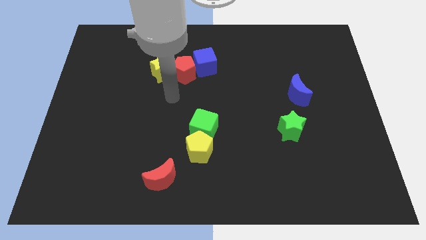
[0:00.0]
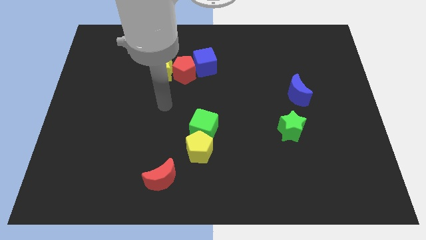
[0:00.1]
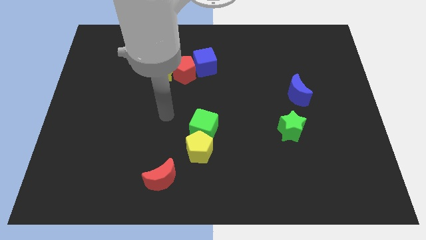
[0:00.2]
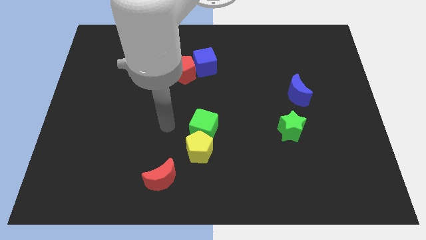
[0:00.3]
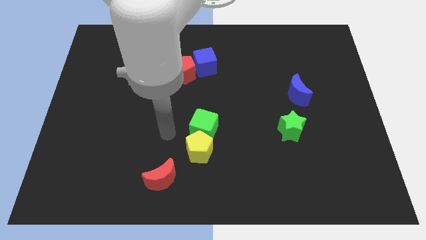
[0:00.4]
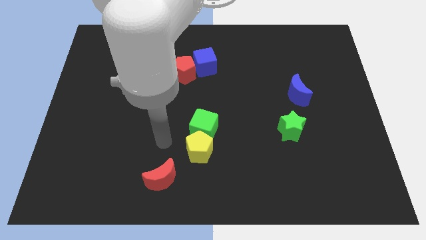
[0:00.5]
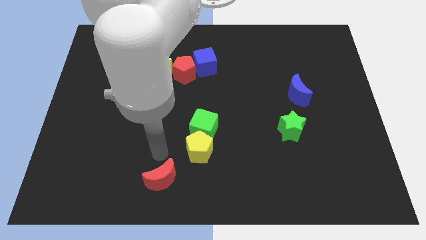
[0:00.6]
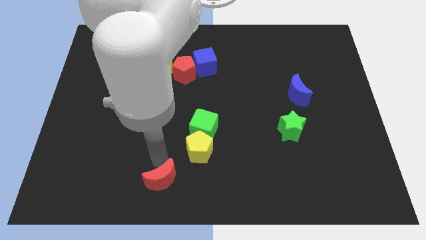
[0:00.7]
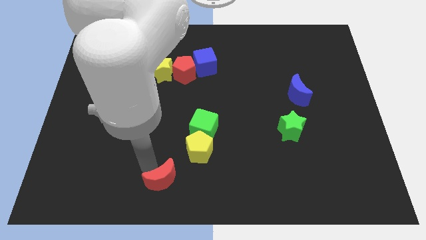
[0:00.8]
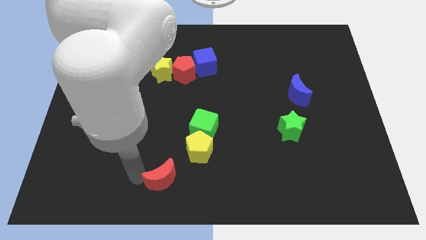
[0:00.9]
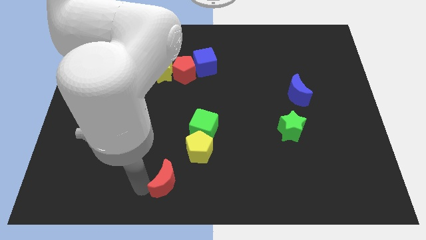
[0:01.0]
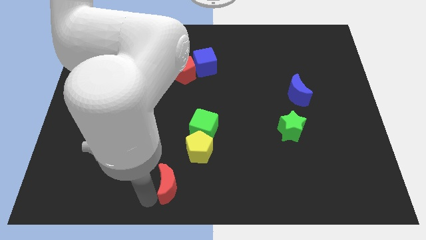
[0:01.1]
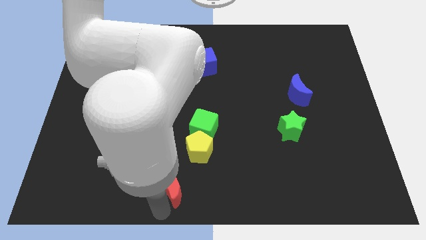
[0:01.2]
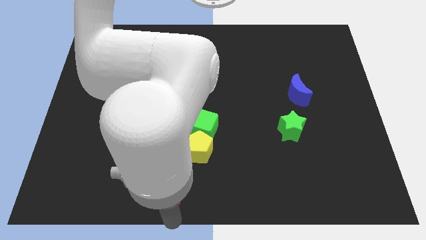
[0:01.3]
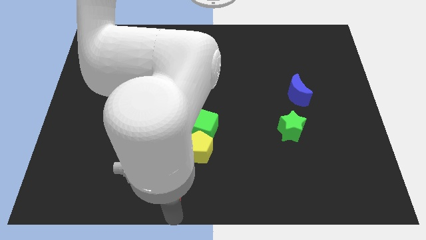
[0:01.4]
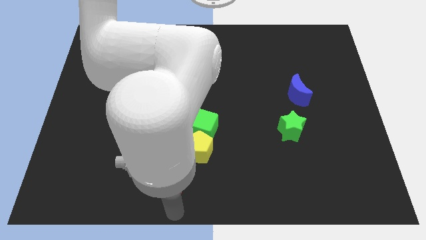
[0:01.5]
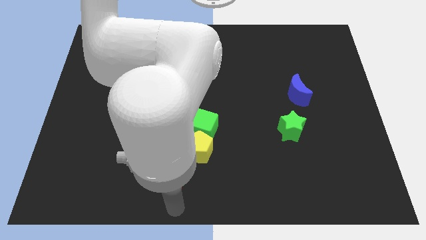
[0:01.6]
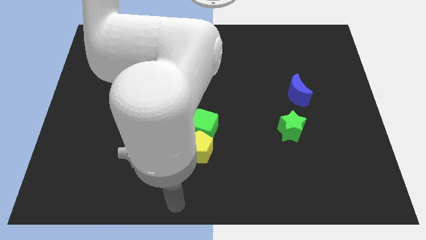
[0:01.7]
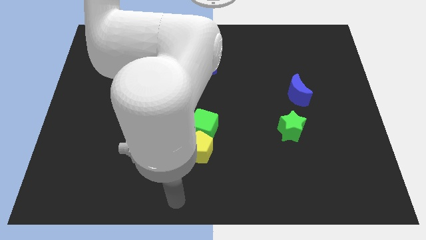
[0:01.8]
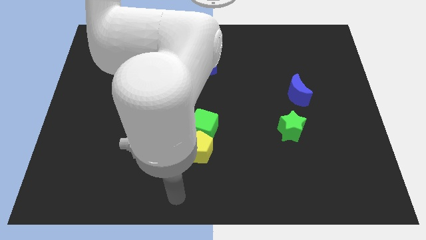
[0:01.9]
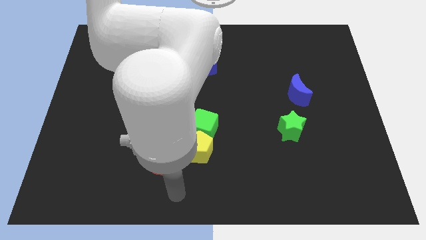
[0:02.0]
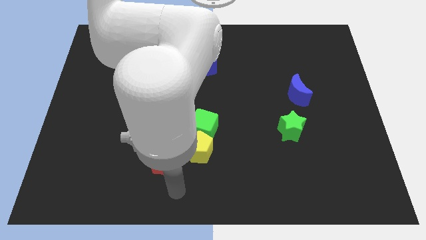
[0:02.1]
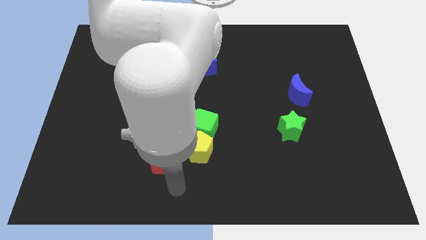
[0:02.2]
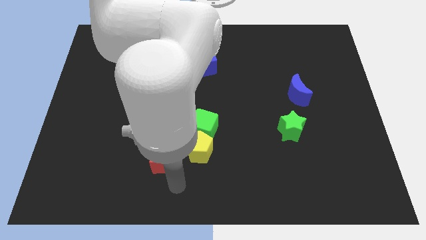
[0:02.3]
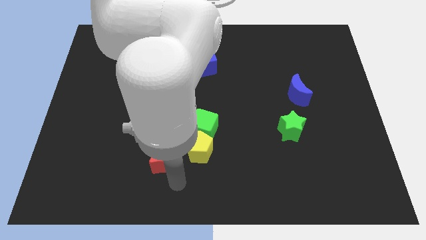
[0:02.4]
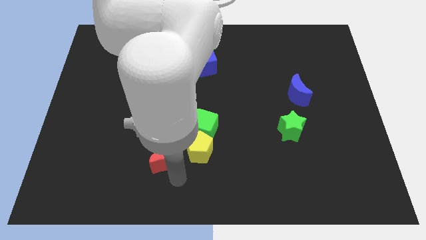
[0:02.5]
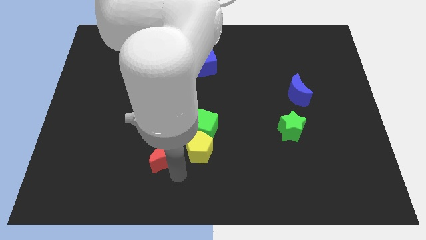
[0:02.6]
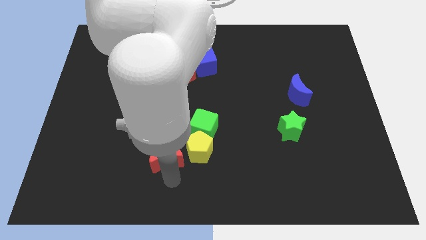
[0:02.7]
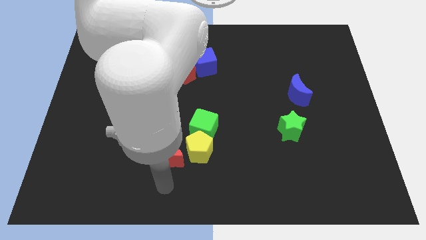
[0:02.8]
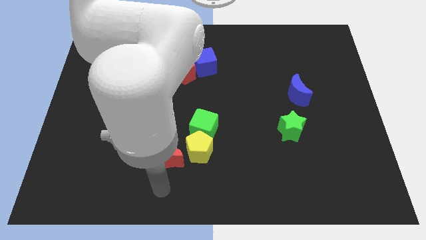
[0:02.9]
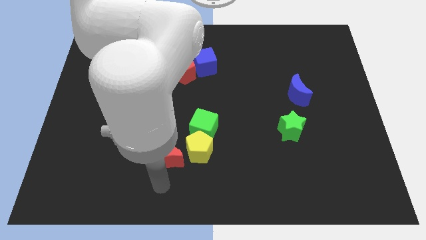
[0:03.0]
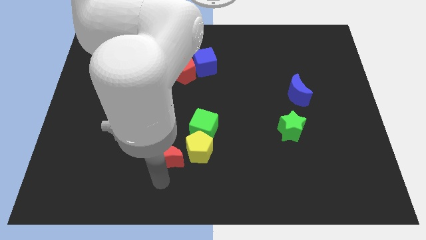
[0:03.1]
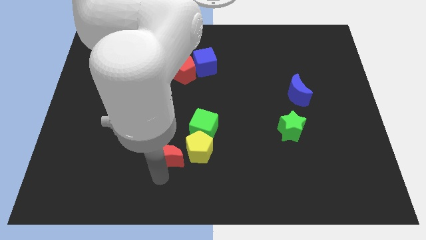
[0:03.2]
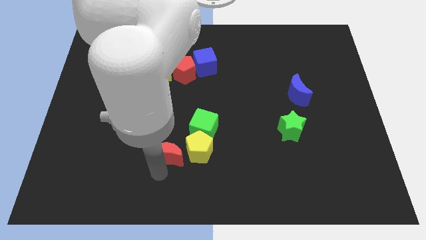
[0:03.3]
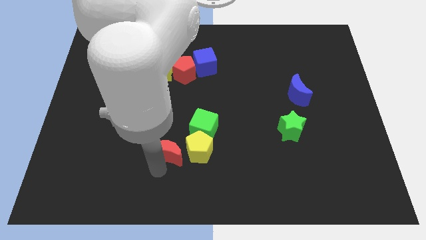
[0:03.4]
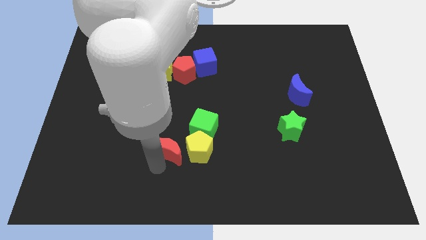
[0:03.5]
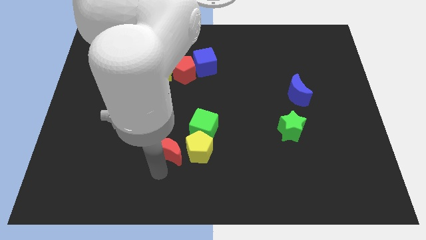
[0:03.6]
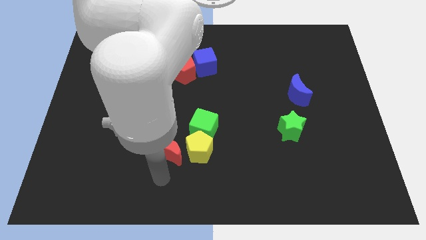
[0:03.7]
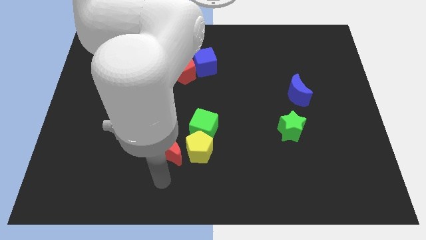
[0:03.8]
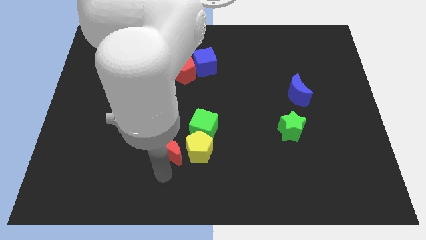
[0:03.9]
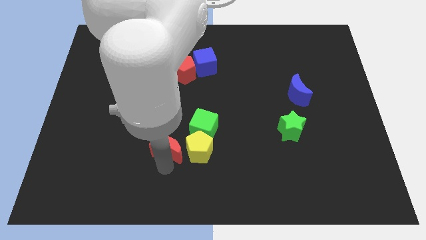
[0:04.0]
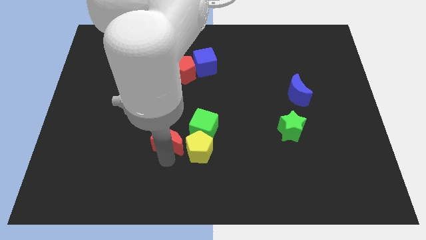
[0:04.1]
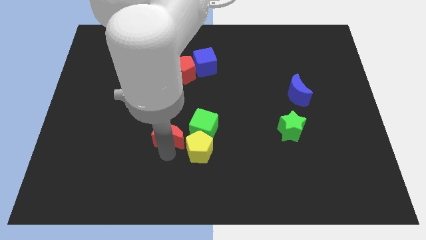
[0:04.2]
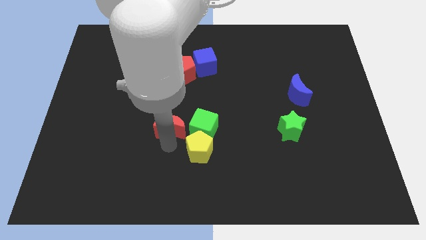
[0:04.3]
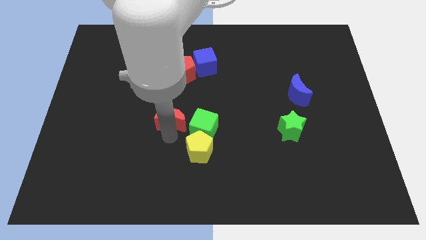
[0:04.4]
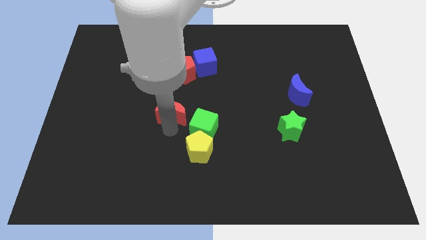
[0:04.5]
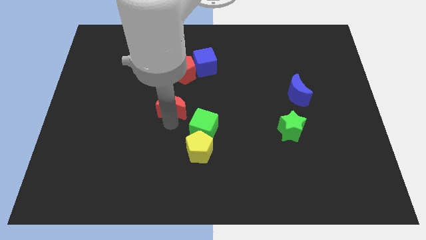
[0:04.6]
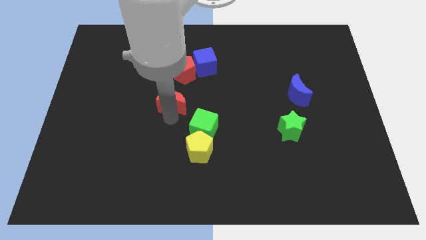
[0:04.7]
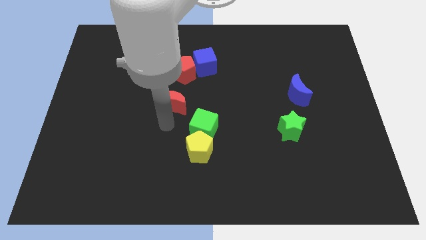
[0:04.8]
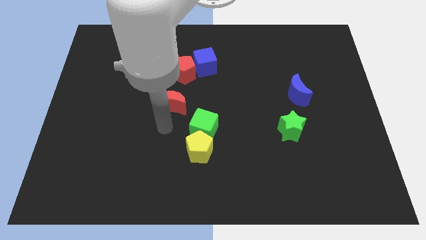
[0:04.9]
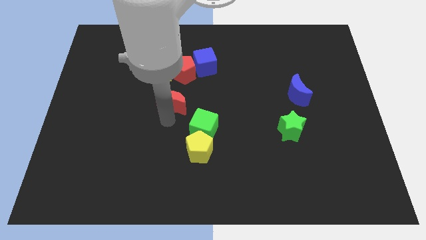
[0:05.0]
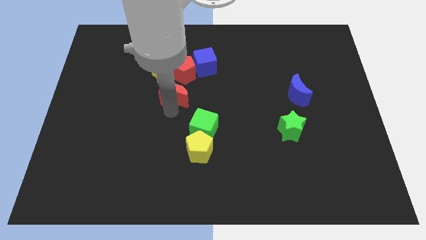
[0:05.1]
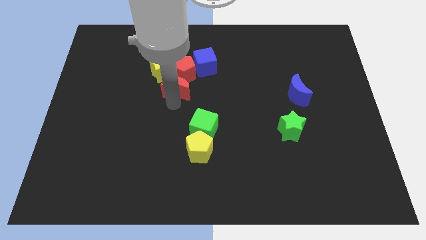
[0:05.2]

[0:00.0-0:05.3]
move the red moon close to the red pentagon

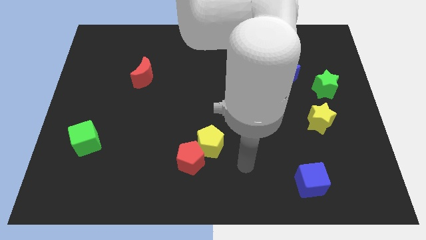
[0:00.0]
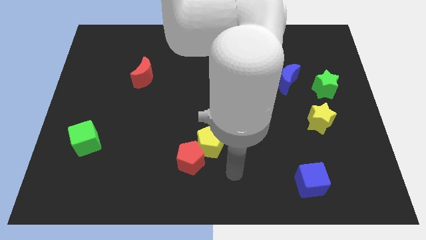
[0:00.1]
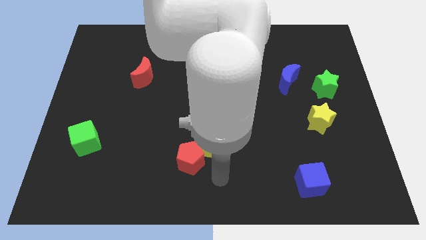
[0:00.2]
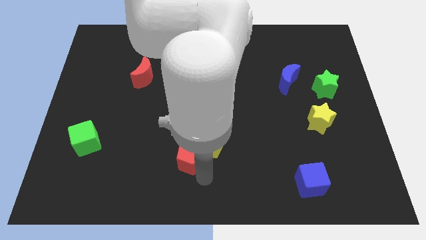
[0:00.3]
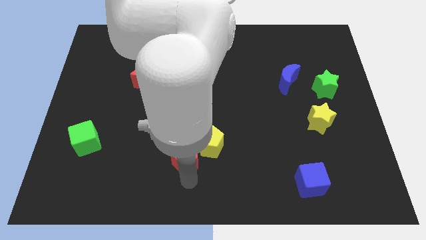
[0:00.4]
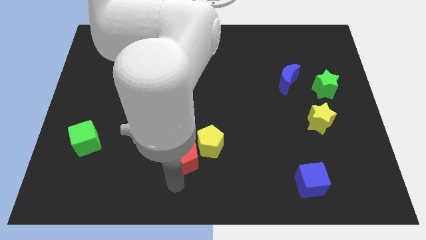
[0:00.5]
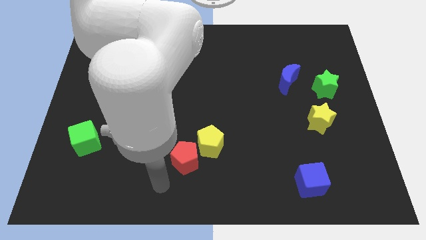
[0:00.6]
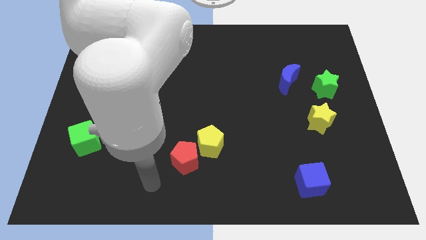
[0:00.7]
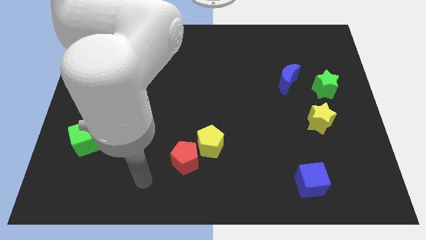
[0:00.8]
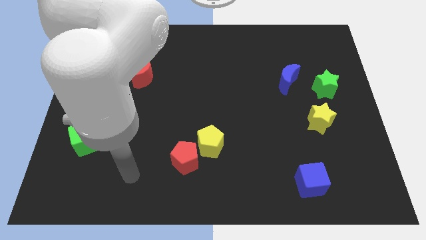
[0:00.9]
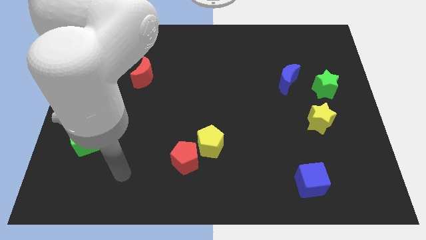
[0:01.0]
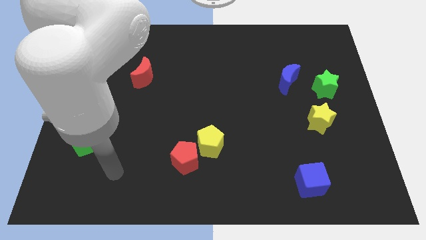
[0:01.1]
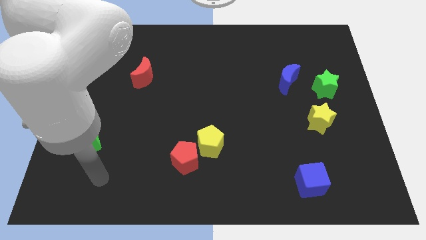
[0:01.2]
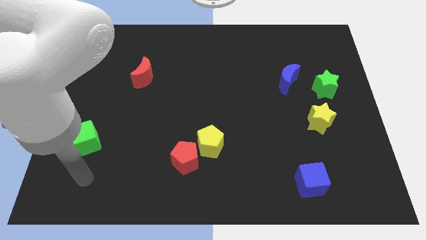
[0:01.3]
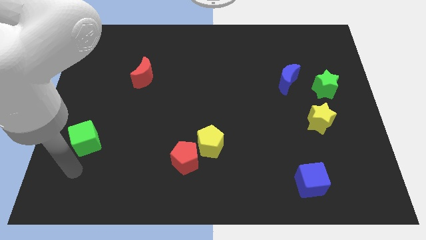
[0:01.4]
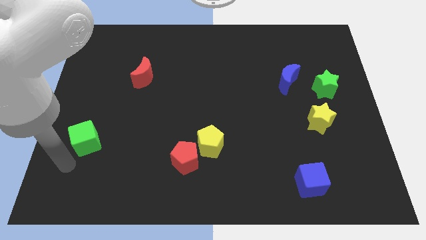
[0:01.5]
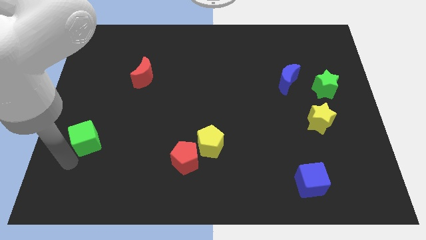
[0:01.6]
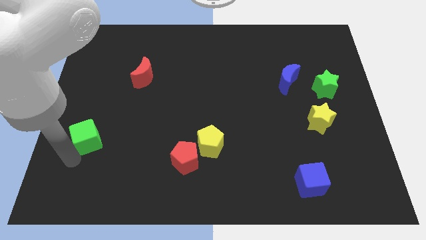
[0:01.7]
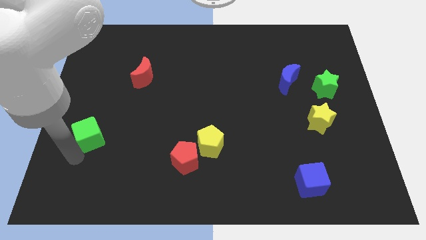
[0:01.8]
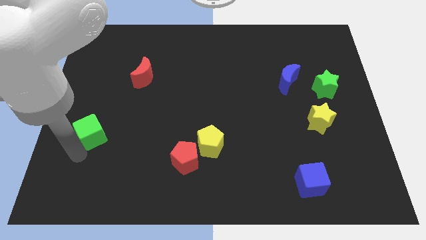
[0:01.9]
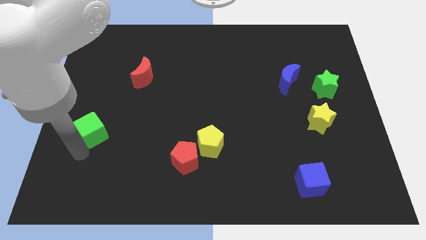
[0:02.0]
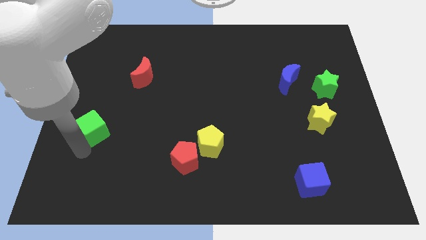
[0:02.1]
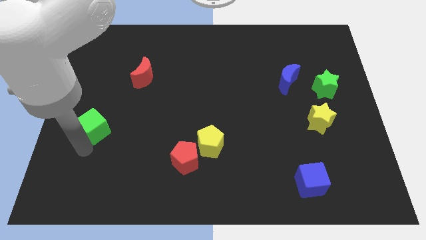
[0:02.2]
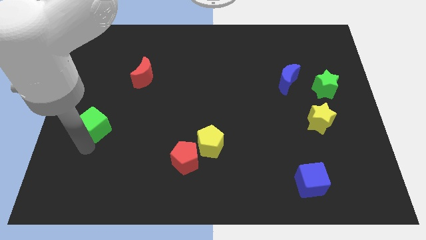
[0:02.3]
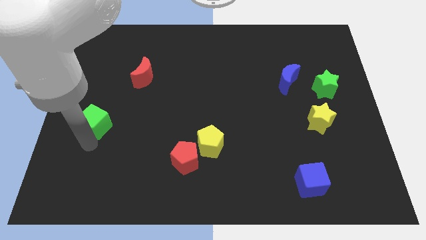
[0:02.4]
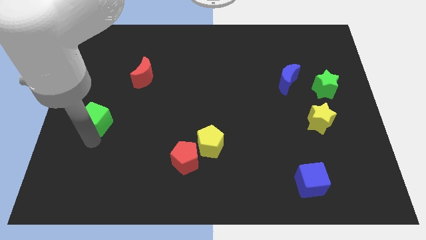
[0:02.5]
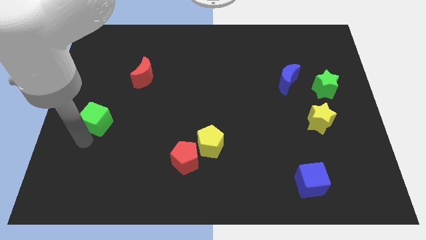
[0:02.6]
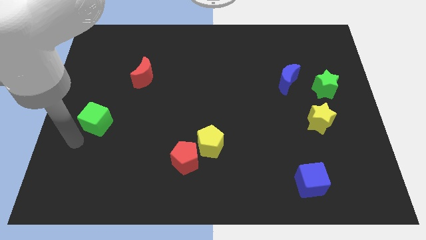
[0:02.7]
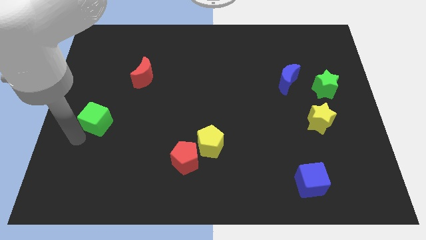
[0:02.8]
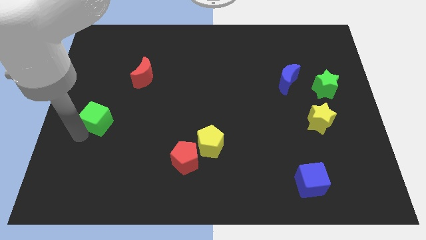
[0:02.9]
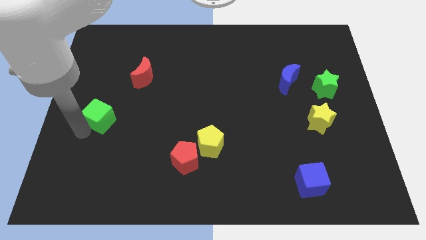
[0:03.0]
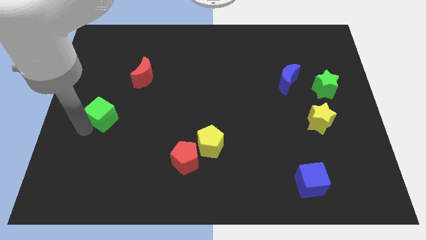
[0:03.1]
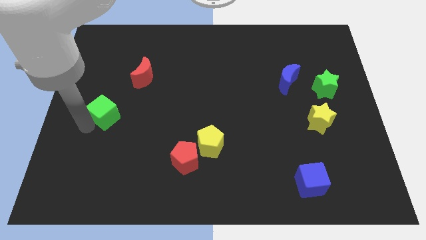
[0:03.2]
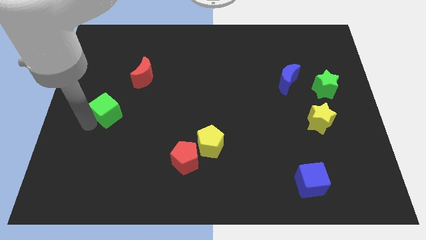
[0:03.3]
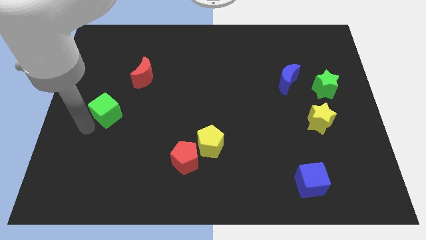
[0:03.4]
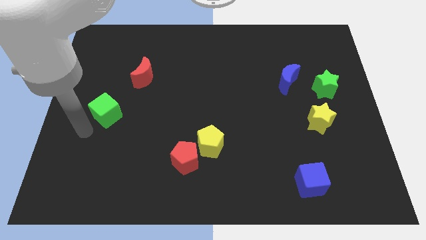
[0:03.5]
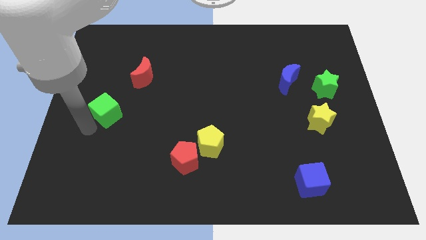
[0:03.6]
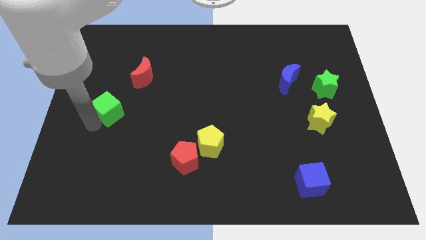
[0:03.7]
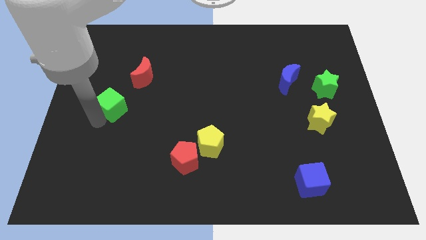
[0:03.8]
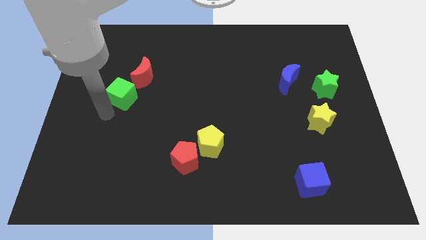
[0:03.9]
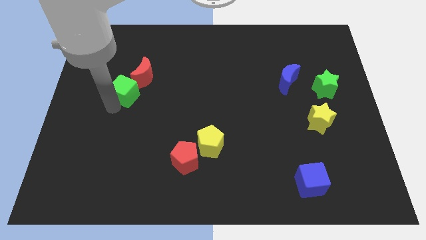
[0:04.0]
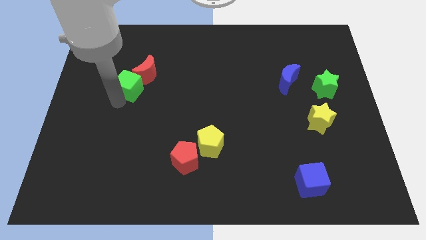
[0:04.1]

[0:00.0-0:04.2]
slide the green cube next to the red moon
